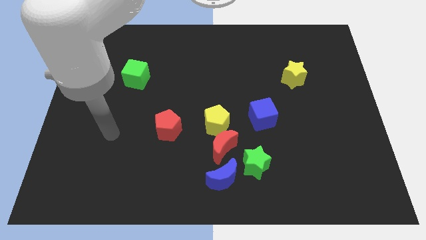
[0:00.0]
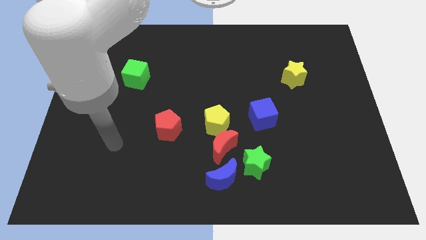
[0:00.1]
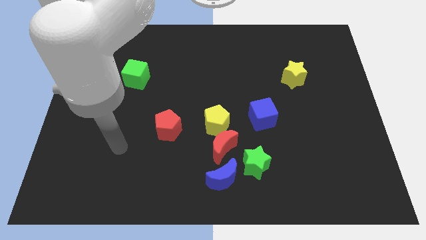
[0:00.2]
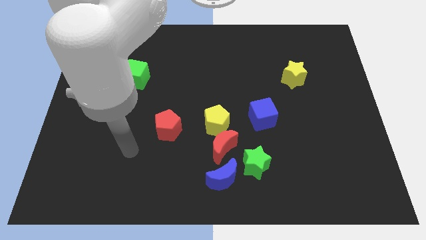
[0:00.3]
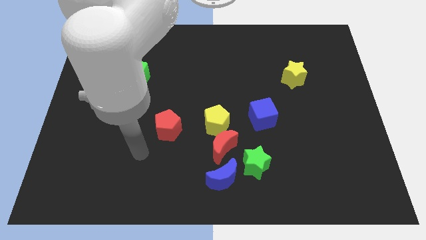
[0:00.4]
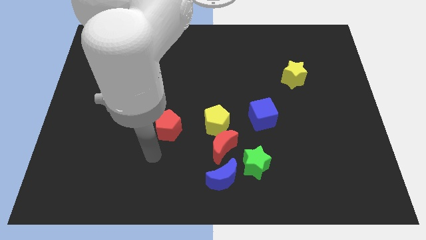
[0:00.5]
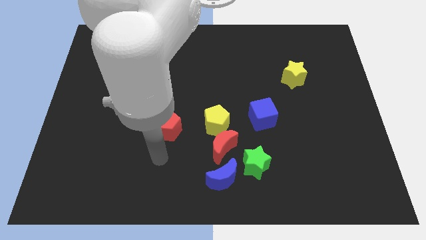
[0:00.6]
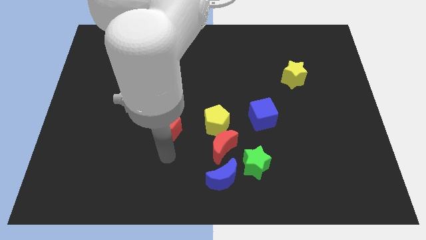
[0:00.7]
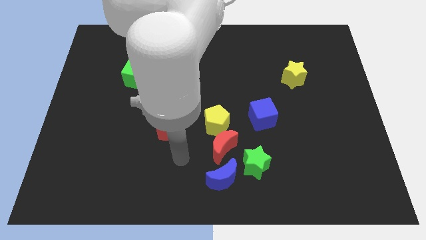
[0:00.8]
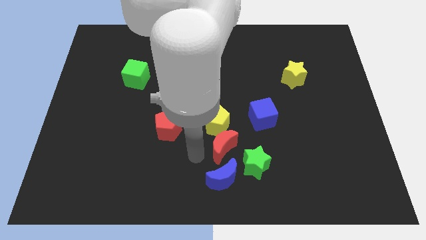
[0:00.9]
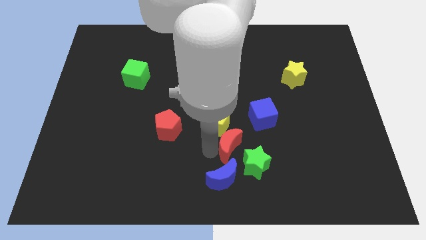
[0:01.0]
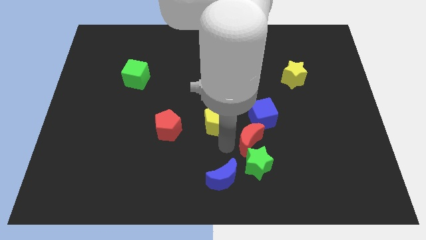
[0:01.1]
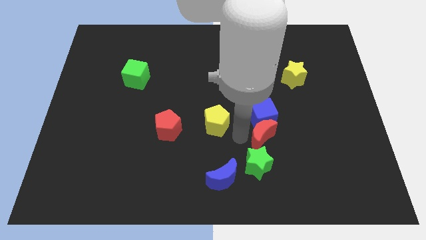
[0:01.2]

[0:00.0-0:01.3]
move the yellow pentagon away from the red moon

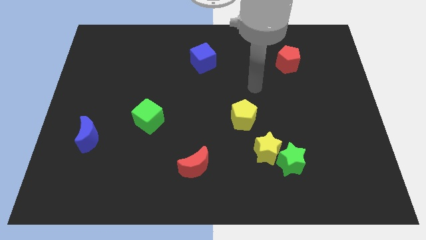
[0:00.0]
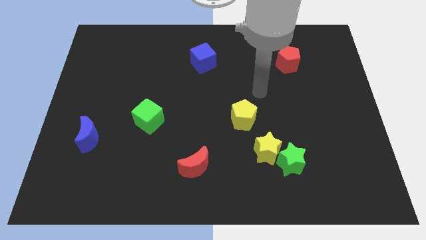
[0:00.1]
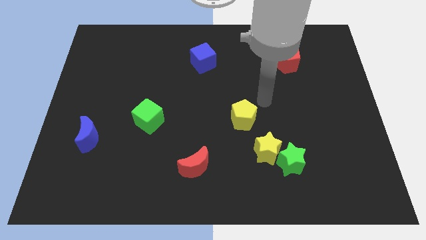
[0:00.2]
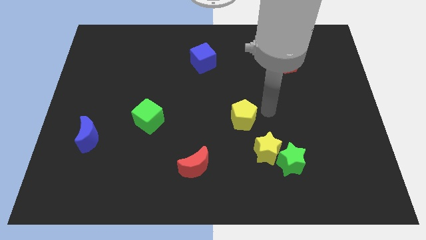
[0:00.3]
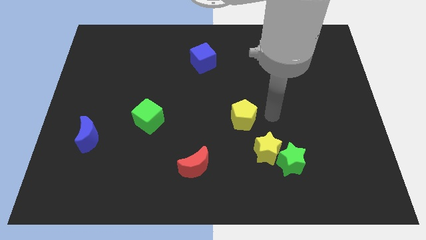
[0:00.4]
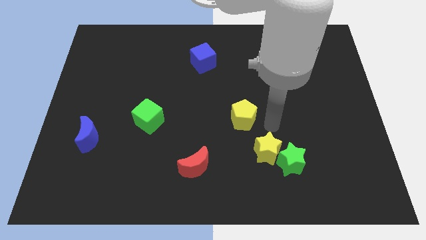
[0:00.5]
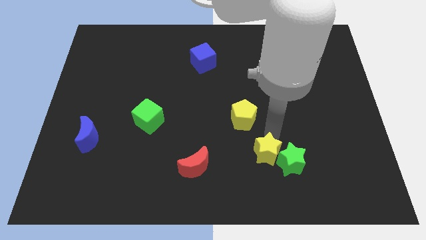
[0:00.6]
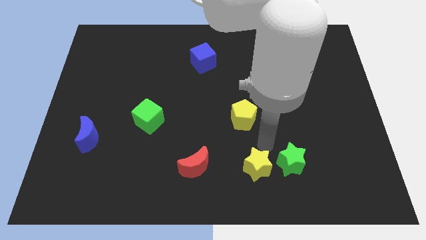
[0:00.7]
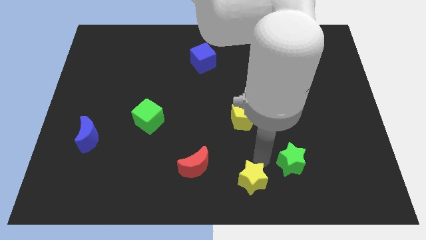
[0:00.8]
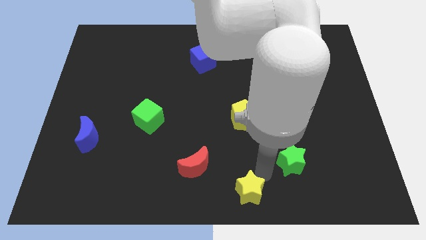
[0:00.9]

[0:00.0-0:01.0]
move the green star away from the yellow star

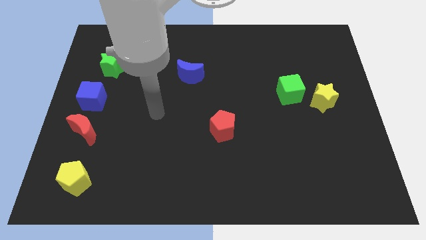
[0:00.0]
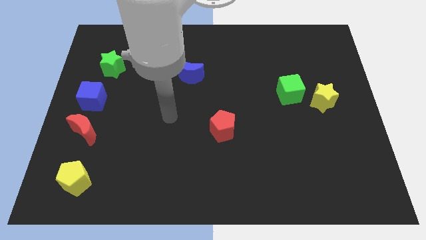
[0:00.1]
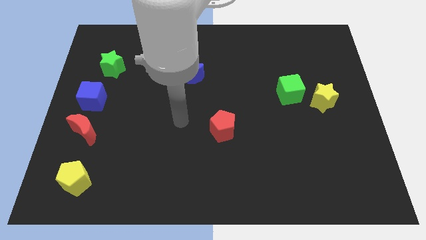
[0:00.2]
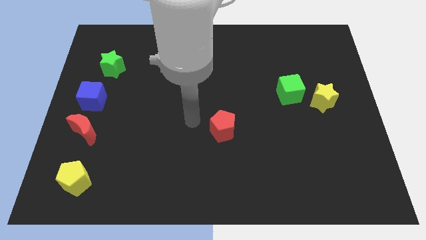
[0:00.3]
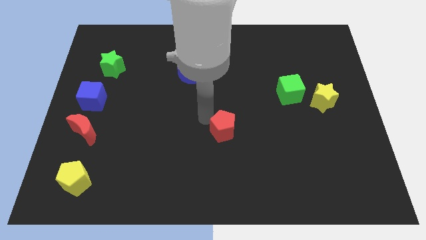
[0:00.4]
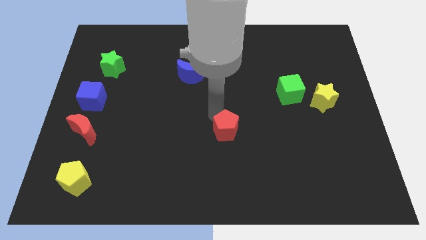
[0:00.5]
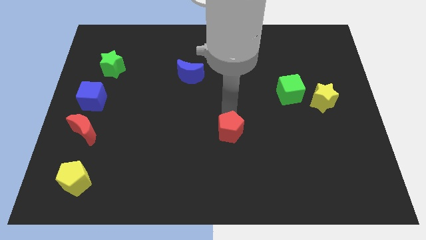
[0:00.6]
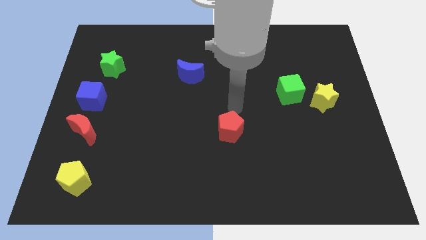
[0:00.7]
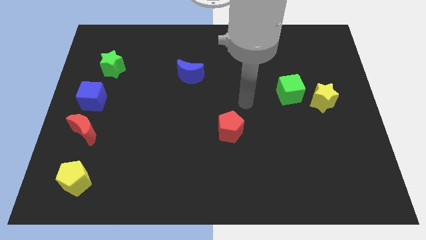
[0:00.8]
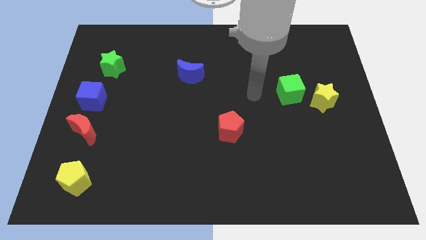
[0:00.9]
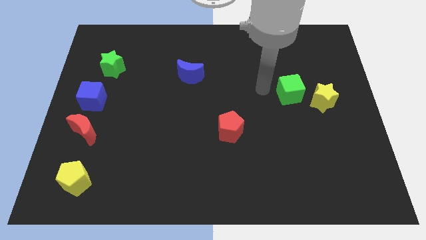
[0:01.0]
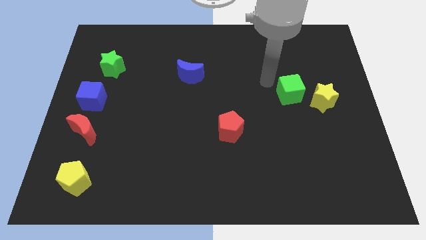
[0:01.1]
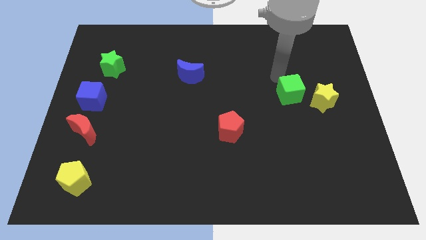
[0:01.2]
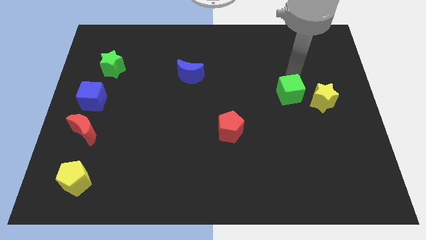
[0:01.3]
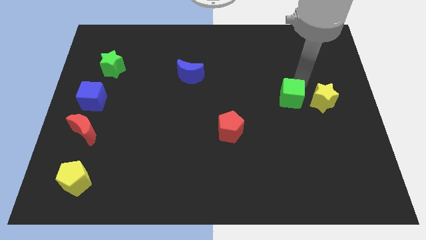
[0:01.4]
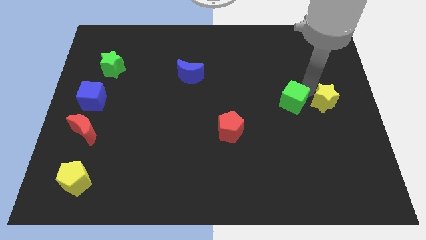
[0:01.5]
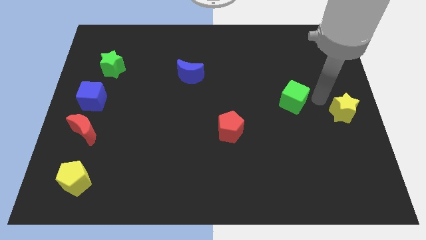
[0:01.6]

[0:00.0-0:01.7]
move the green cube away from the yellow star

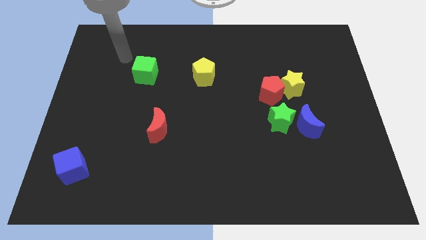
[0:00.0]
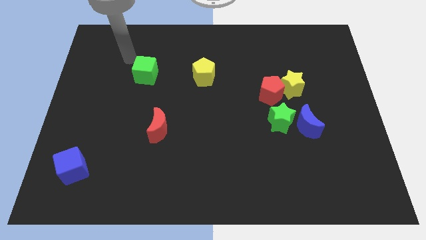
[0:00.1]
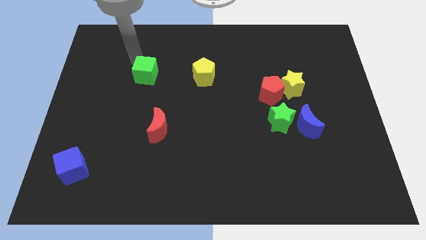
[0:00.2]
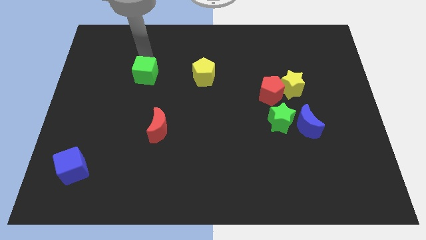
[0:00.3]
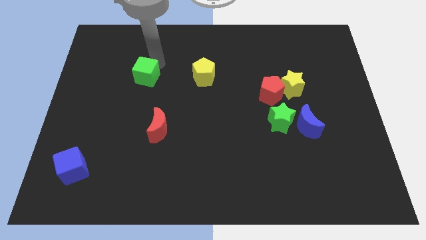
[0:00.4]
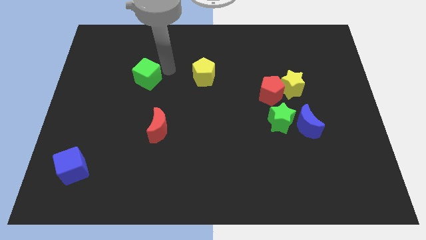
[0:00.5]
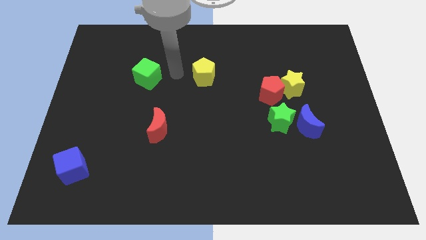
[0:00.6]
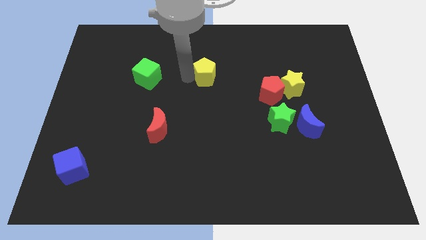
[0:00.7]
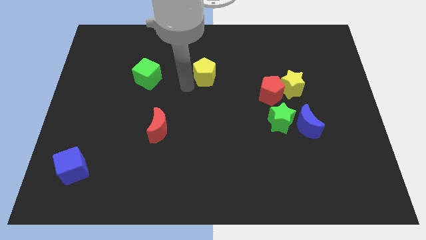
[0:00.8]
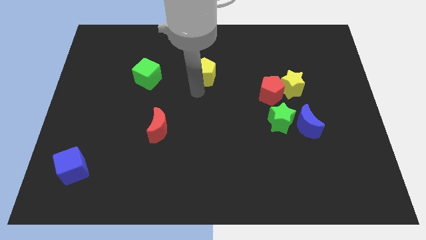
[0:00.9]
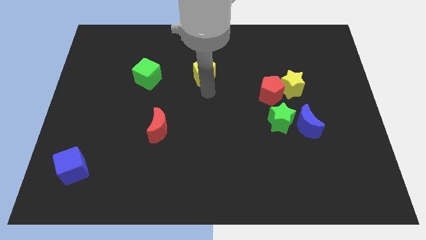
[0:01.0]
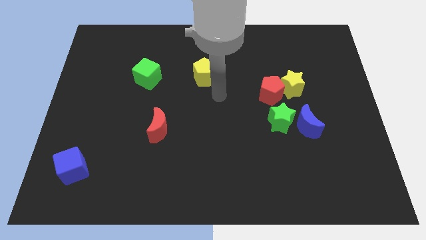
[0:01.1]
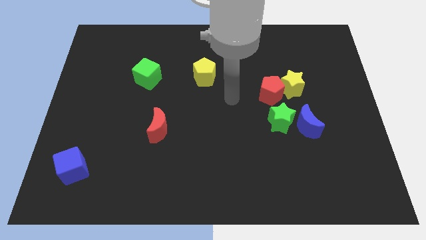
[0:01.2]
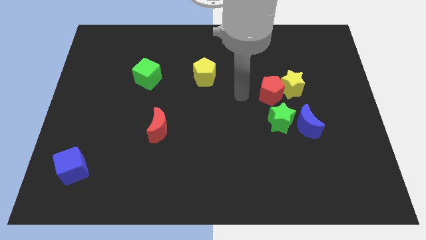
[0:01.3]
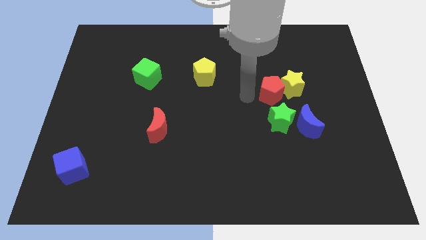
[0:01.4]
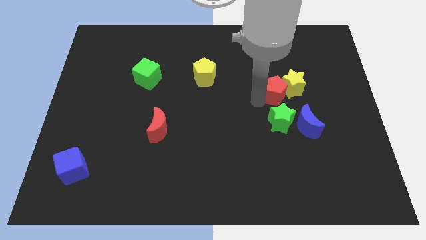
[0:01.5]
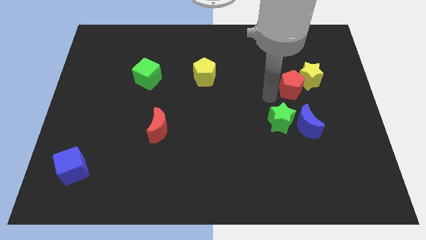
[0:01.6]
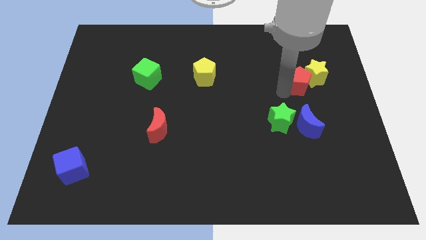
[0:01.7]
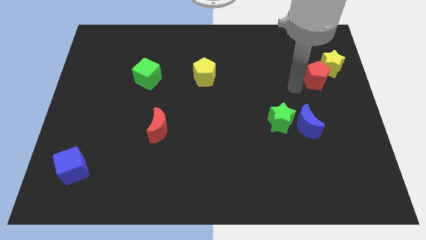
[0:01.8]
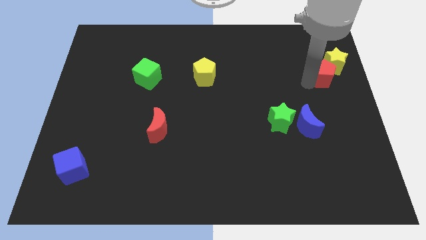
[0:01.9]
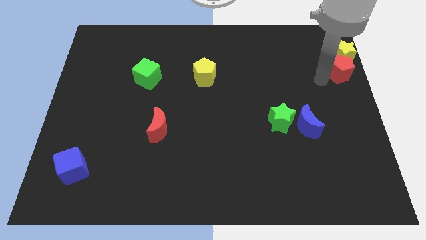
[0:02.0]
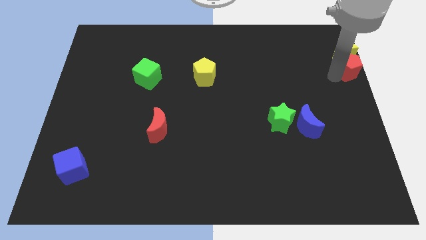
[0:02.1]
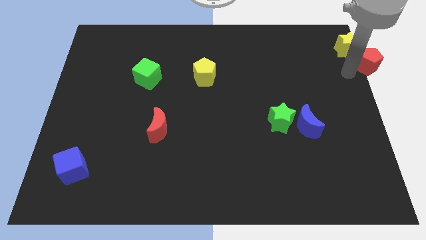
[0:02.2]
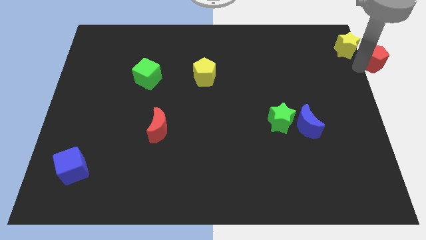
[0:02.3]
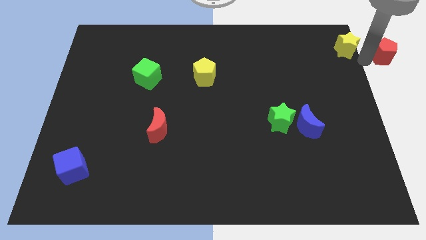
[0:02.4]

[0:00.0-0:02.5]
move the yellow star away from the red pentagon

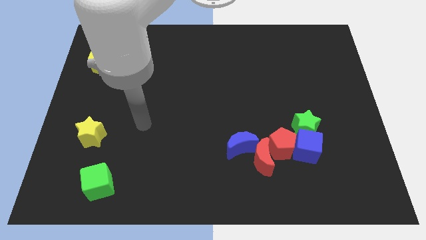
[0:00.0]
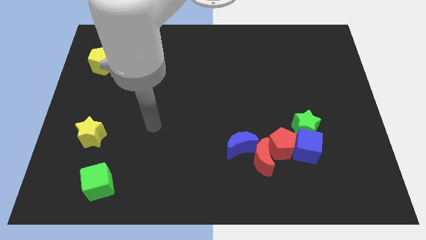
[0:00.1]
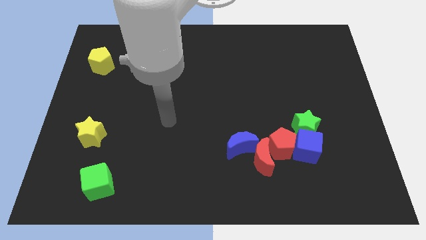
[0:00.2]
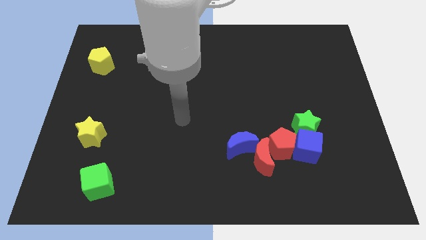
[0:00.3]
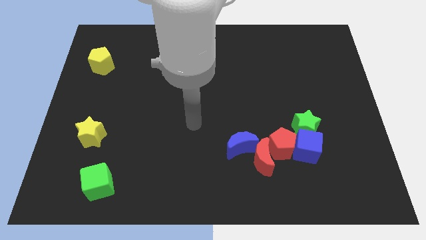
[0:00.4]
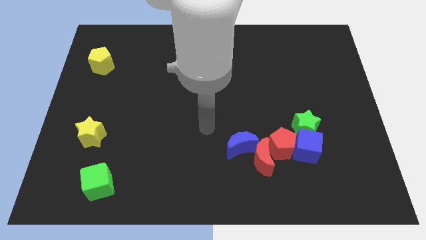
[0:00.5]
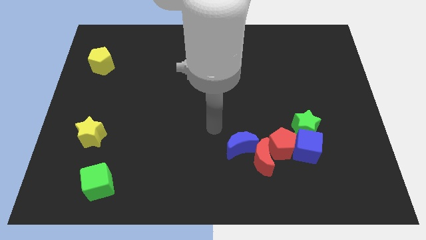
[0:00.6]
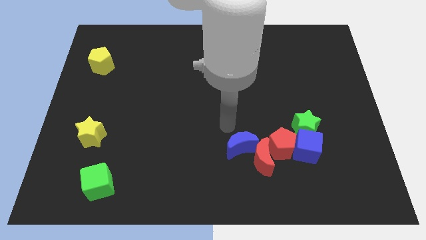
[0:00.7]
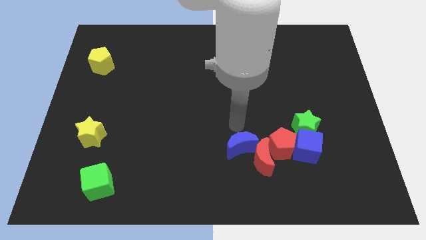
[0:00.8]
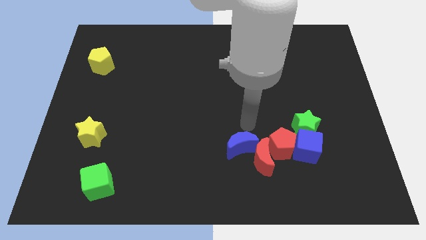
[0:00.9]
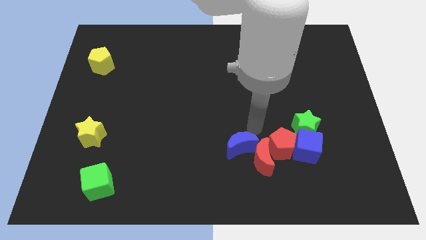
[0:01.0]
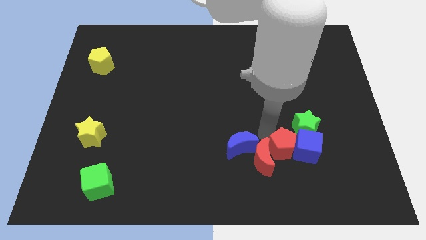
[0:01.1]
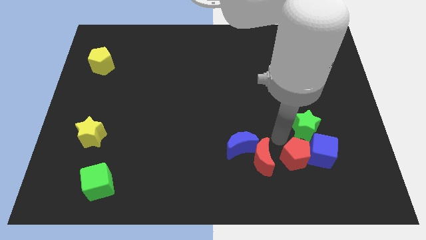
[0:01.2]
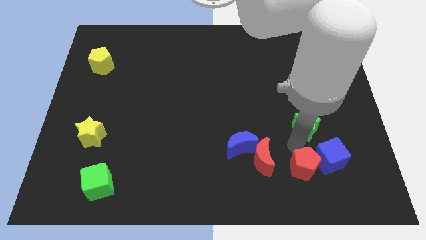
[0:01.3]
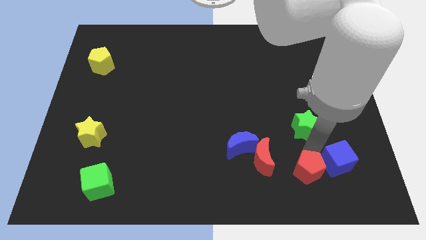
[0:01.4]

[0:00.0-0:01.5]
separate the green star from the blue cube and red pentagon

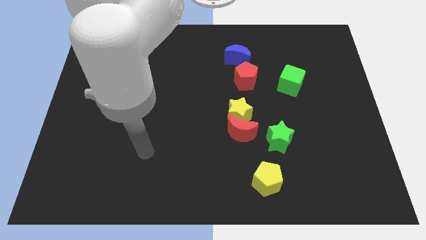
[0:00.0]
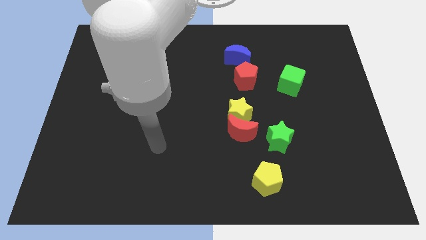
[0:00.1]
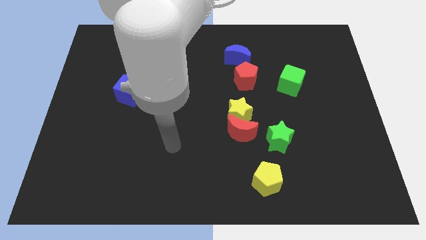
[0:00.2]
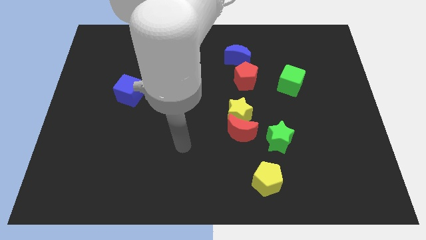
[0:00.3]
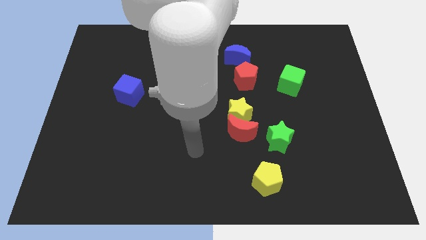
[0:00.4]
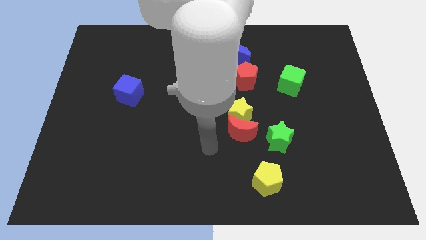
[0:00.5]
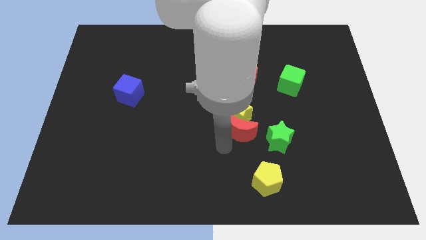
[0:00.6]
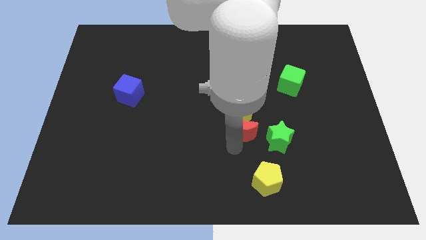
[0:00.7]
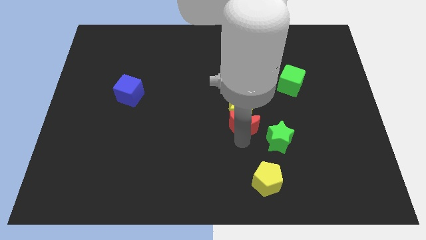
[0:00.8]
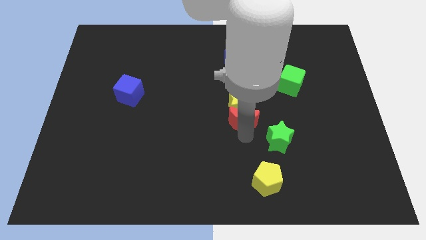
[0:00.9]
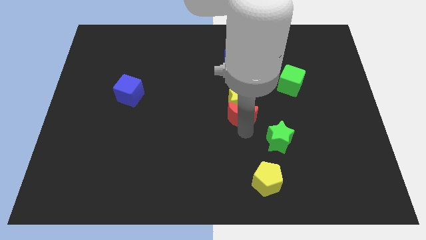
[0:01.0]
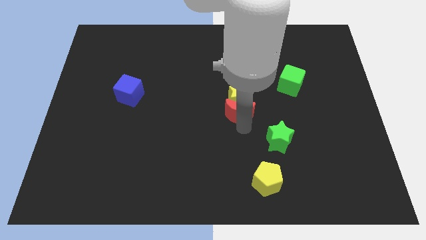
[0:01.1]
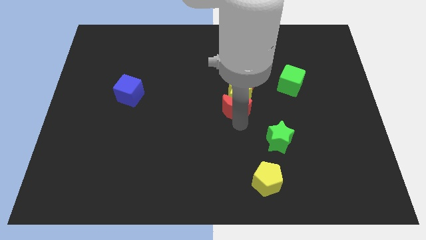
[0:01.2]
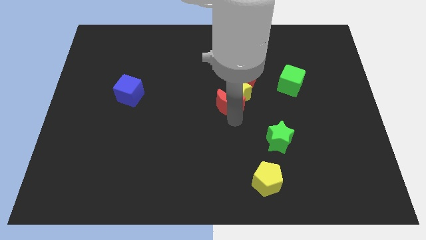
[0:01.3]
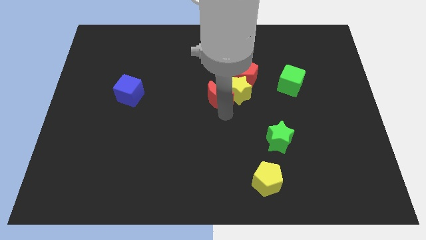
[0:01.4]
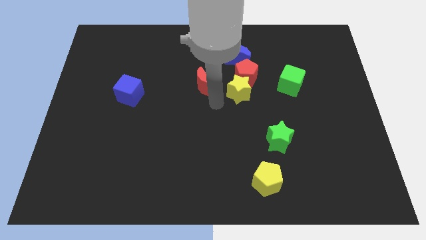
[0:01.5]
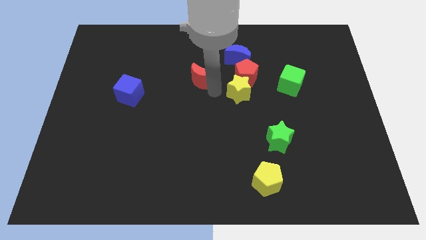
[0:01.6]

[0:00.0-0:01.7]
move the yellow star away from the red moon
